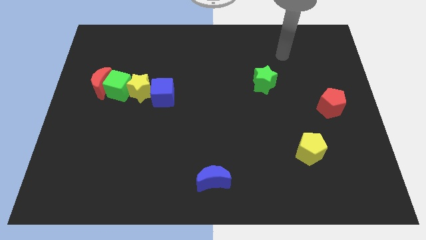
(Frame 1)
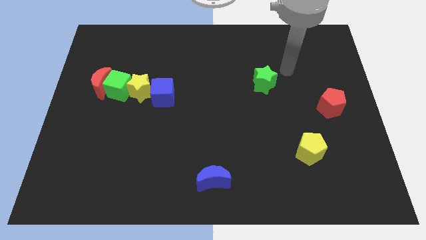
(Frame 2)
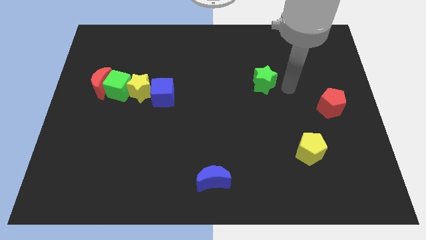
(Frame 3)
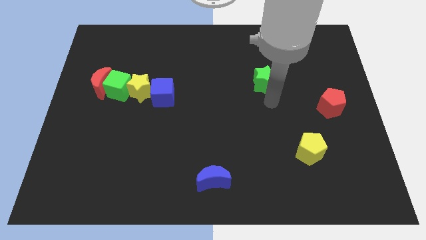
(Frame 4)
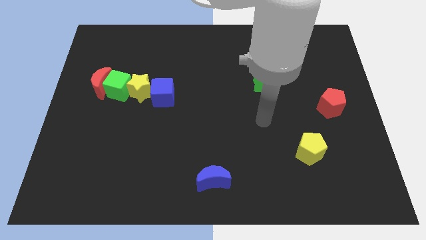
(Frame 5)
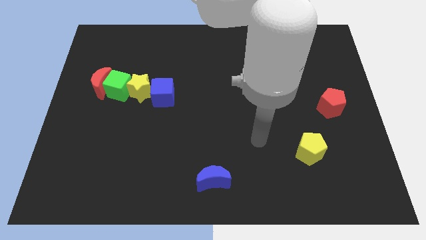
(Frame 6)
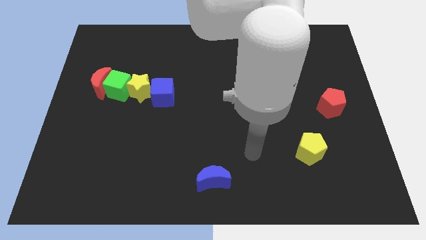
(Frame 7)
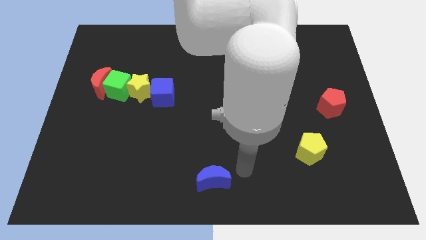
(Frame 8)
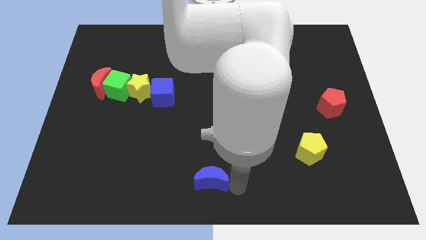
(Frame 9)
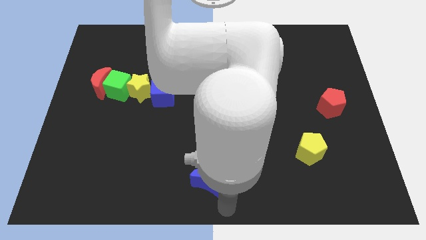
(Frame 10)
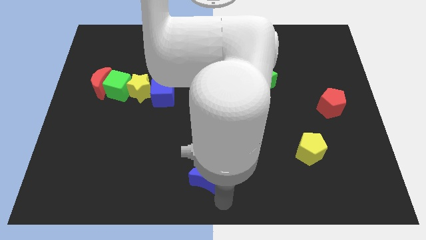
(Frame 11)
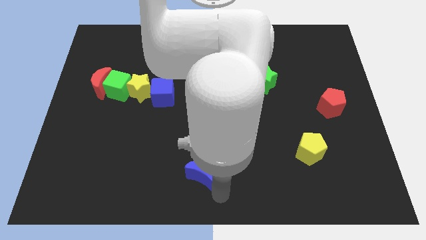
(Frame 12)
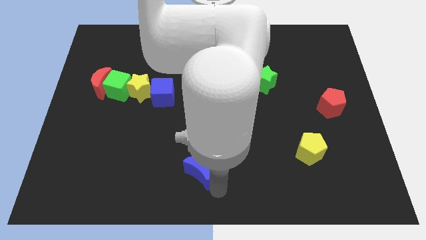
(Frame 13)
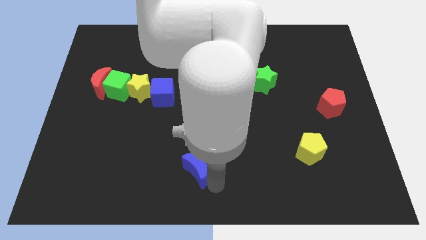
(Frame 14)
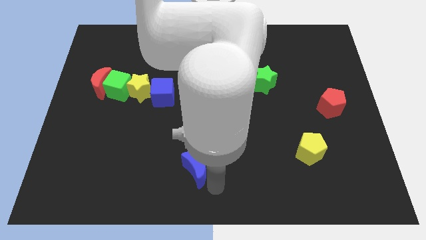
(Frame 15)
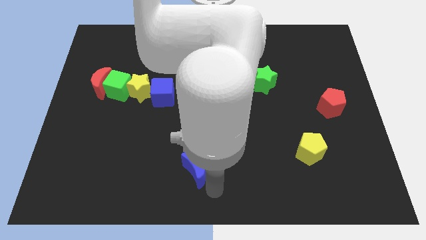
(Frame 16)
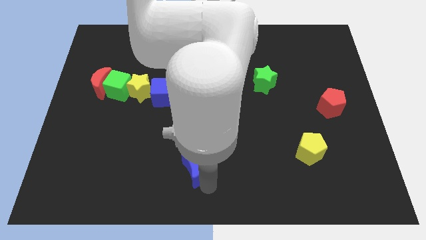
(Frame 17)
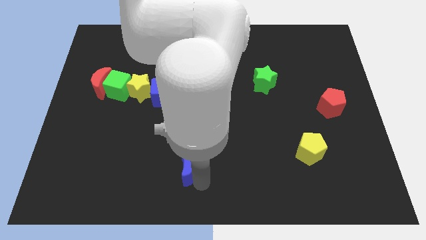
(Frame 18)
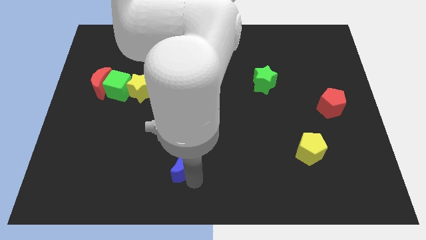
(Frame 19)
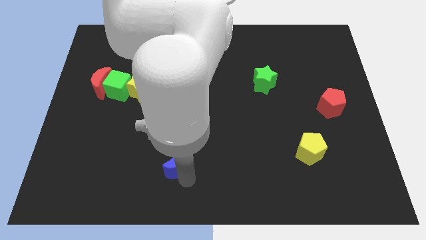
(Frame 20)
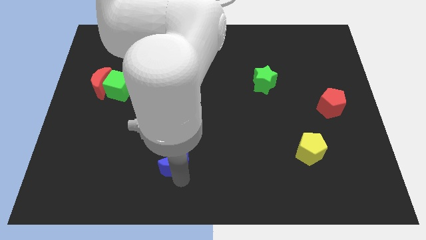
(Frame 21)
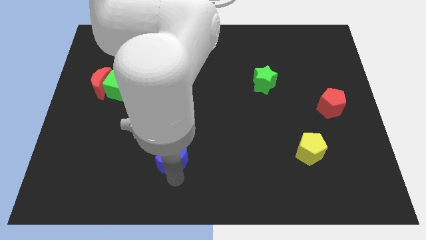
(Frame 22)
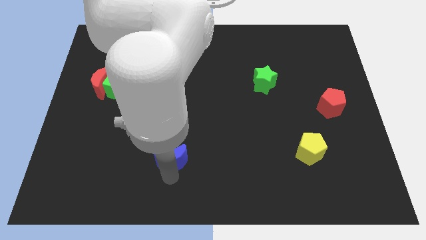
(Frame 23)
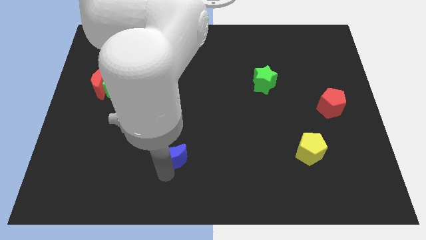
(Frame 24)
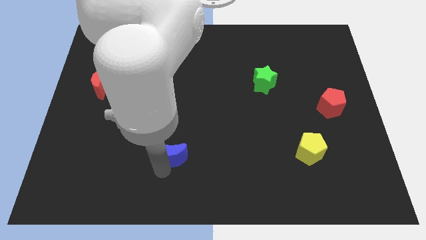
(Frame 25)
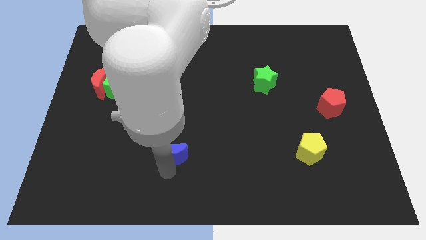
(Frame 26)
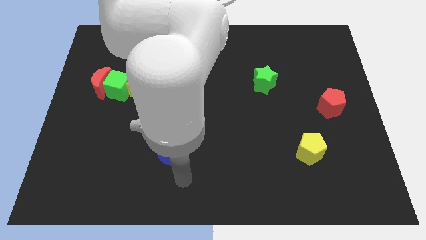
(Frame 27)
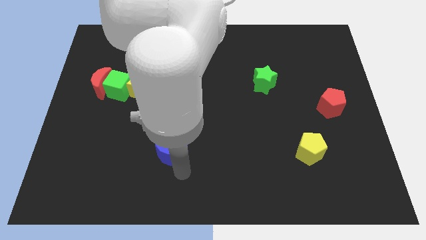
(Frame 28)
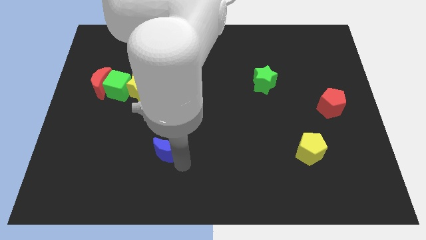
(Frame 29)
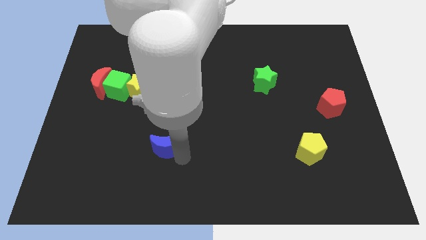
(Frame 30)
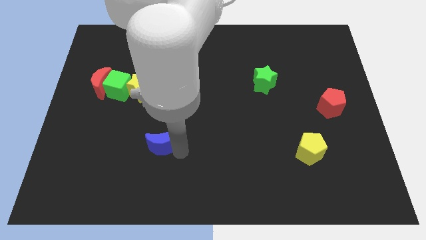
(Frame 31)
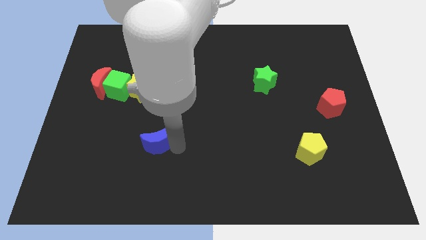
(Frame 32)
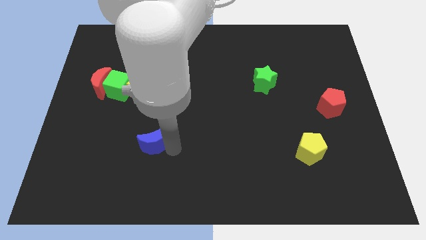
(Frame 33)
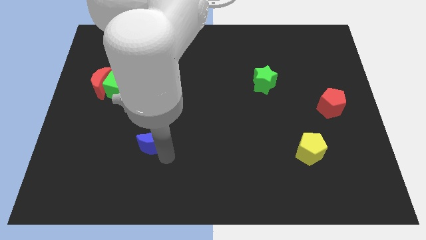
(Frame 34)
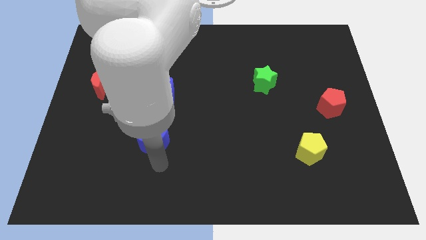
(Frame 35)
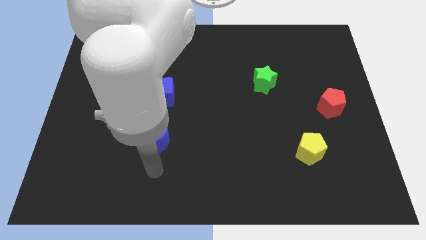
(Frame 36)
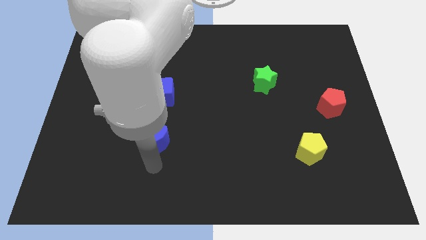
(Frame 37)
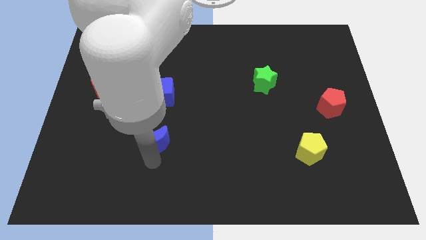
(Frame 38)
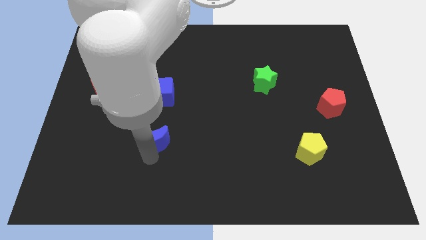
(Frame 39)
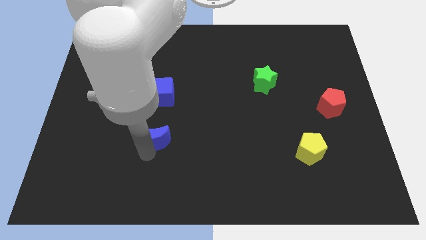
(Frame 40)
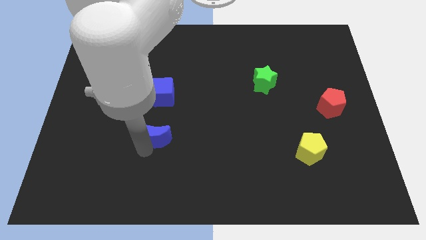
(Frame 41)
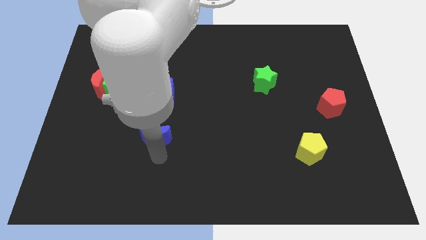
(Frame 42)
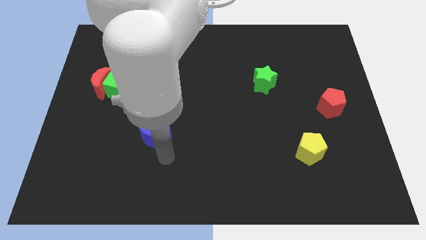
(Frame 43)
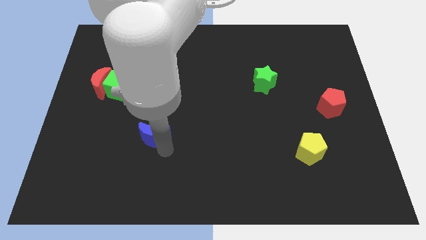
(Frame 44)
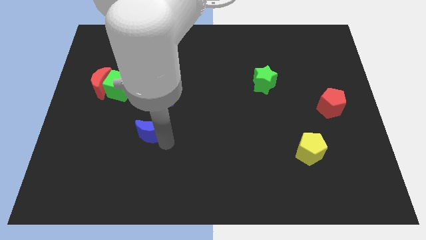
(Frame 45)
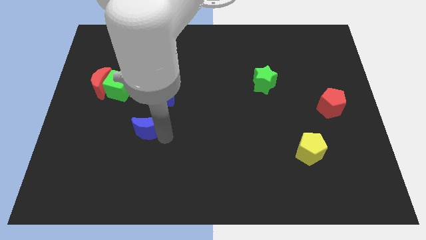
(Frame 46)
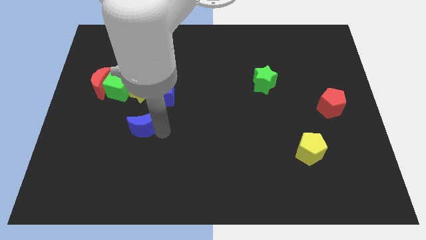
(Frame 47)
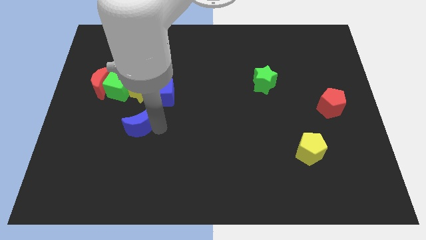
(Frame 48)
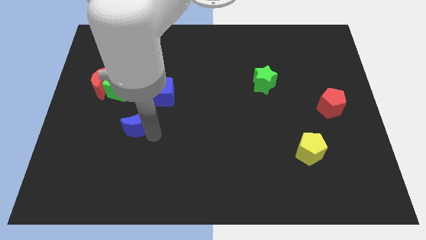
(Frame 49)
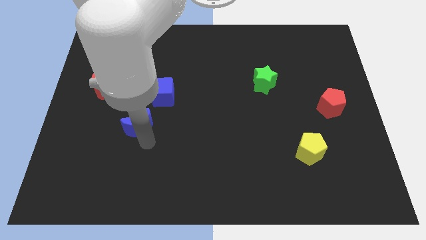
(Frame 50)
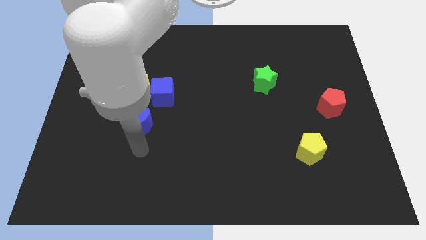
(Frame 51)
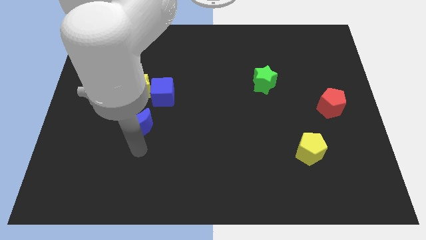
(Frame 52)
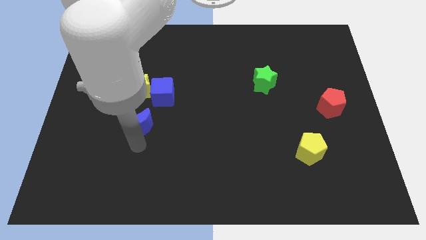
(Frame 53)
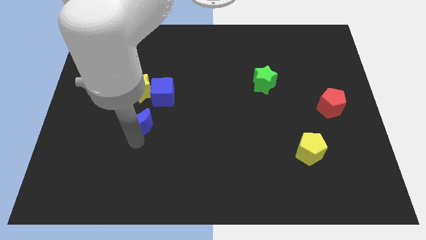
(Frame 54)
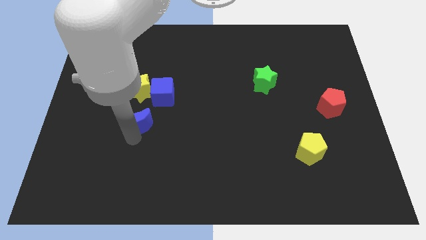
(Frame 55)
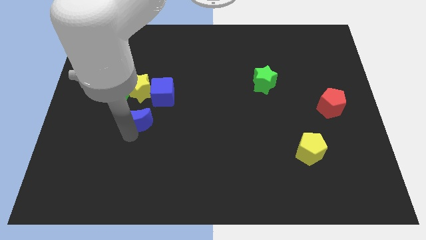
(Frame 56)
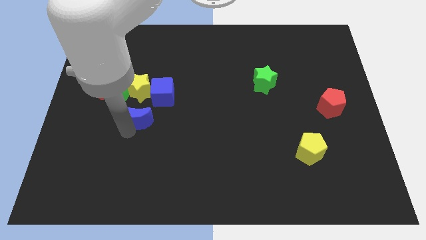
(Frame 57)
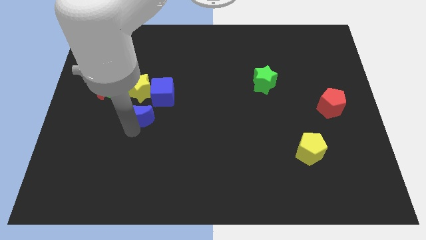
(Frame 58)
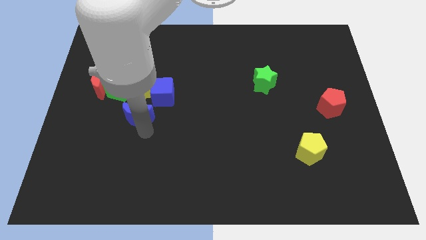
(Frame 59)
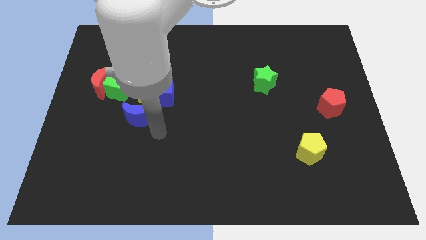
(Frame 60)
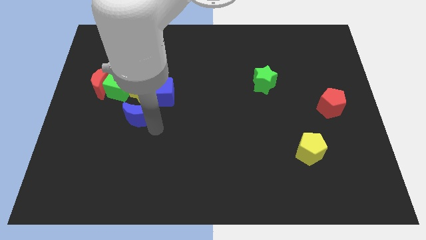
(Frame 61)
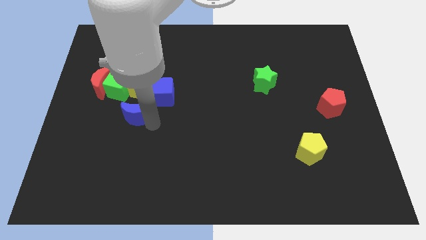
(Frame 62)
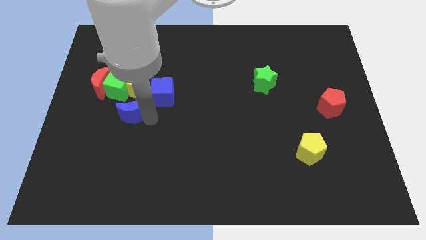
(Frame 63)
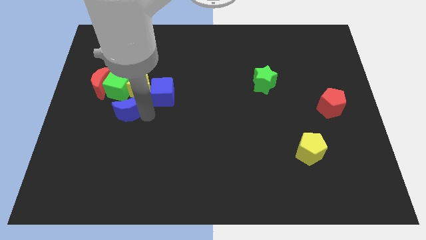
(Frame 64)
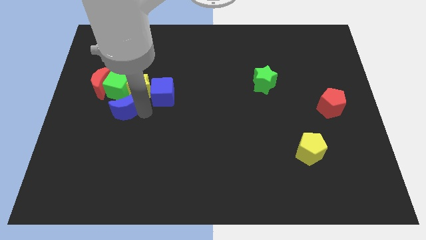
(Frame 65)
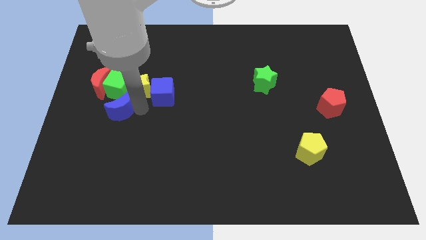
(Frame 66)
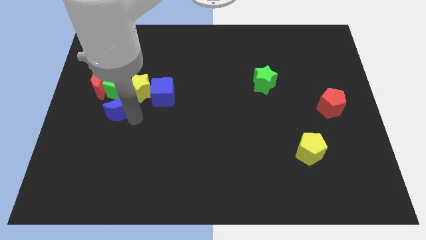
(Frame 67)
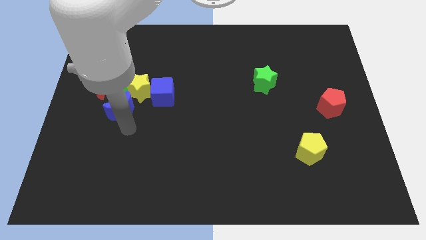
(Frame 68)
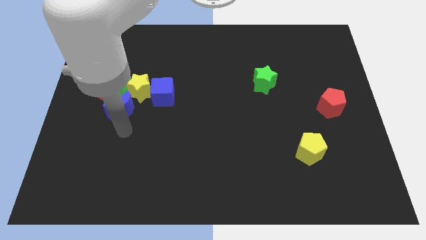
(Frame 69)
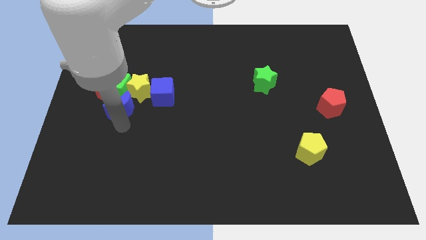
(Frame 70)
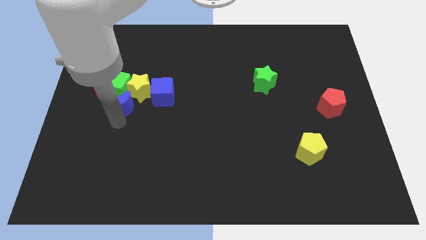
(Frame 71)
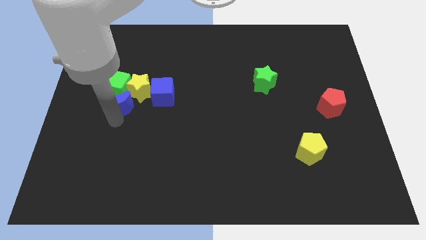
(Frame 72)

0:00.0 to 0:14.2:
slide the blue moon next to the green cube
